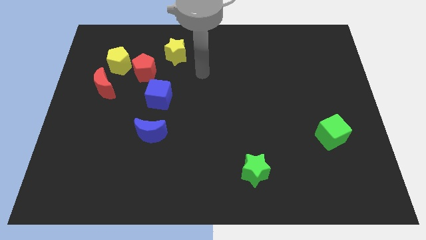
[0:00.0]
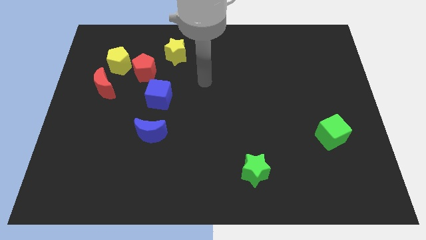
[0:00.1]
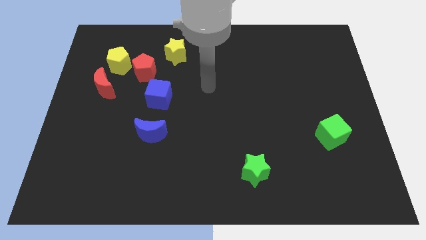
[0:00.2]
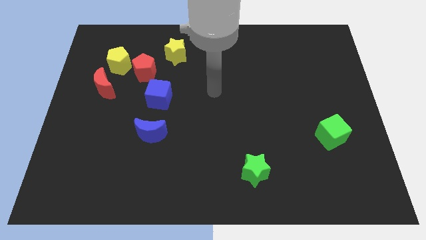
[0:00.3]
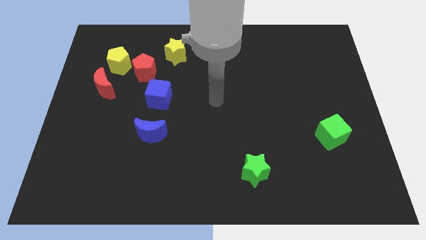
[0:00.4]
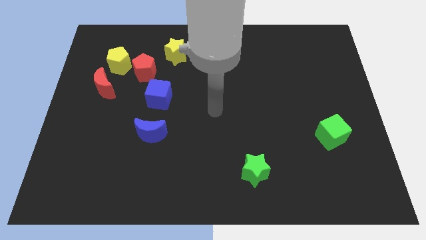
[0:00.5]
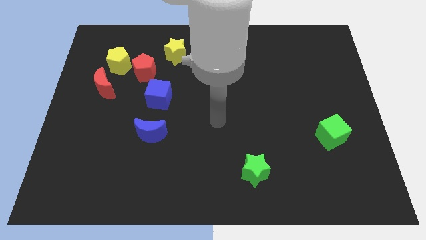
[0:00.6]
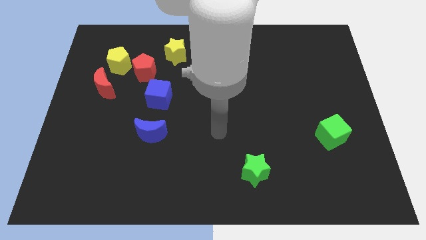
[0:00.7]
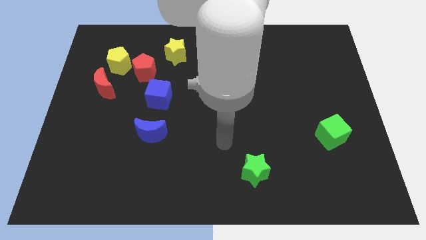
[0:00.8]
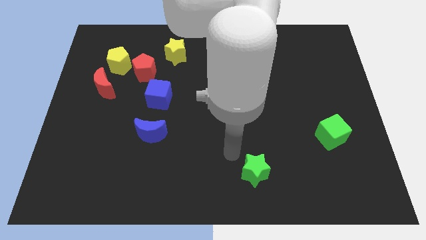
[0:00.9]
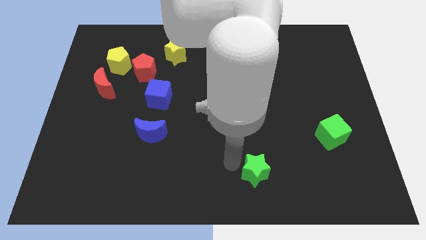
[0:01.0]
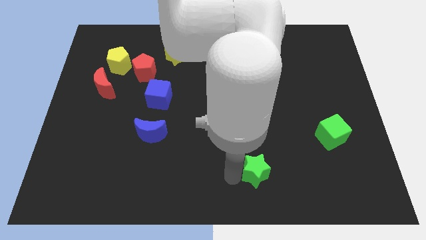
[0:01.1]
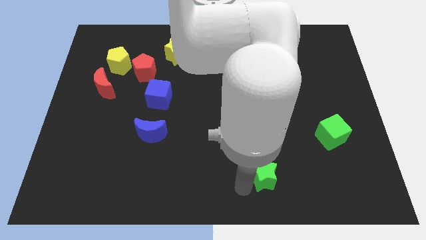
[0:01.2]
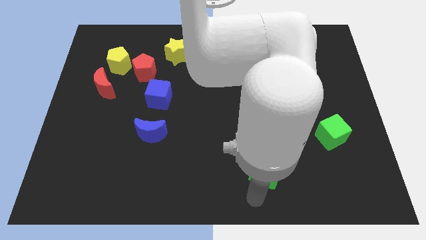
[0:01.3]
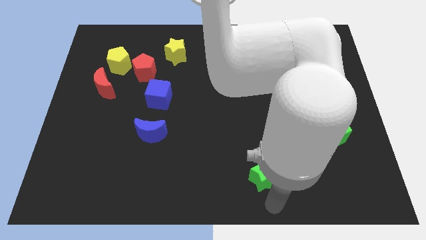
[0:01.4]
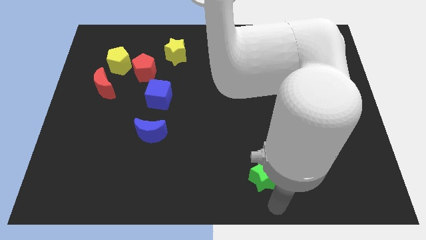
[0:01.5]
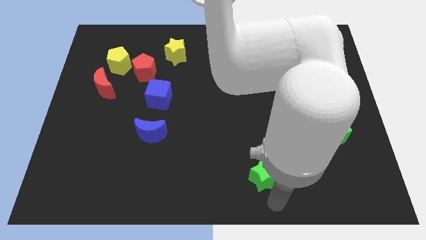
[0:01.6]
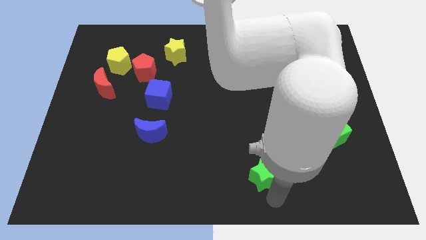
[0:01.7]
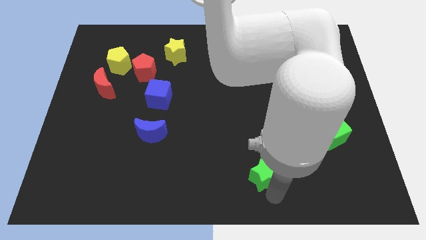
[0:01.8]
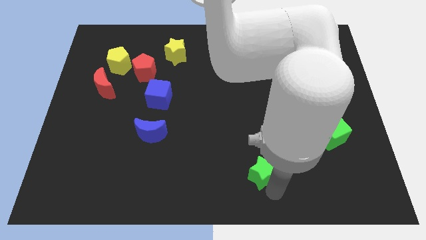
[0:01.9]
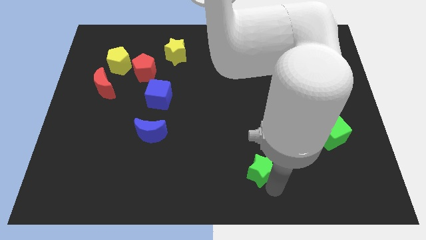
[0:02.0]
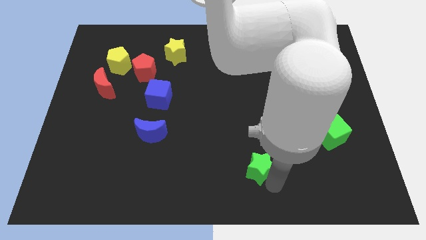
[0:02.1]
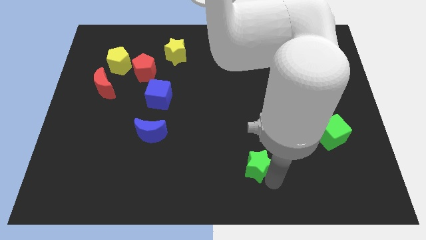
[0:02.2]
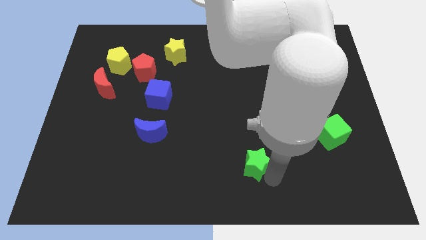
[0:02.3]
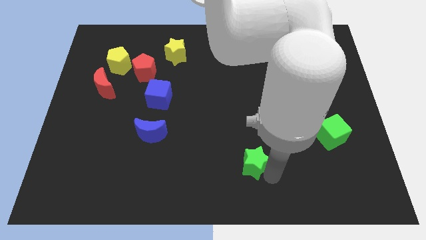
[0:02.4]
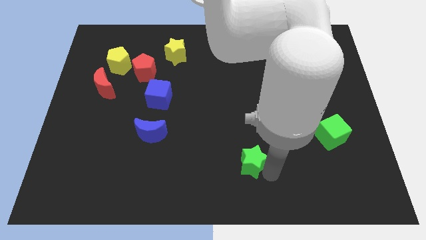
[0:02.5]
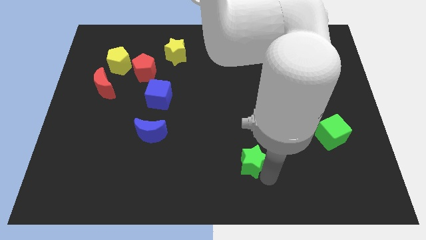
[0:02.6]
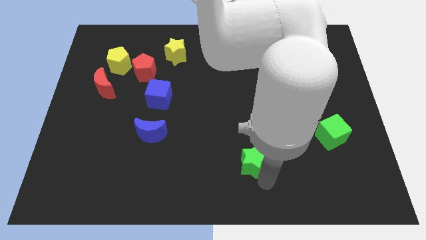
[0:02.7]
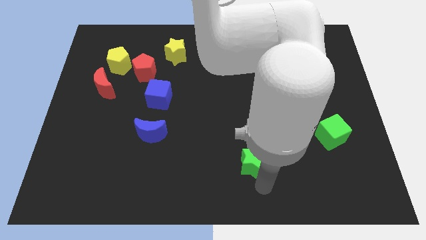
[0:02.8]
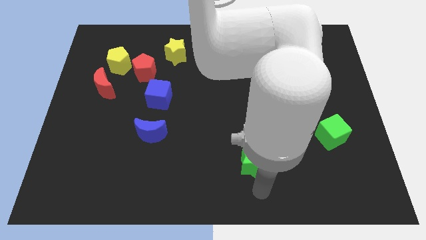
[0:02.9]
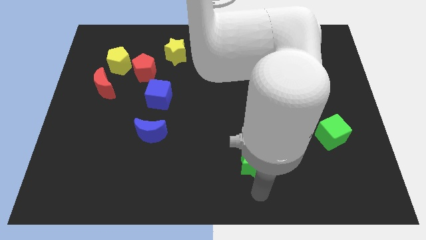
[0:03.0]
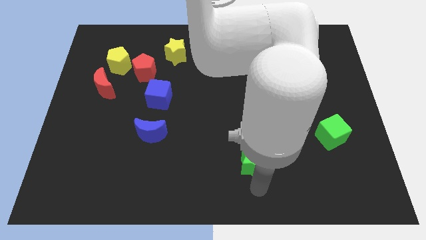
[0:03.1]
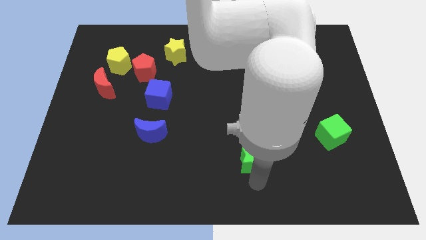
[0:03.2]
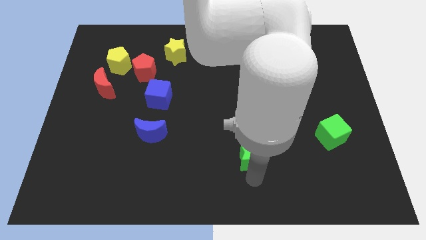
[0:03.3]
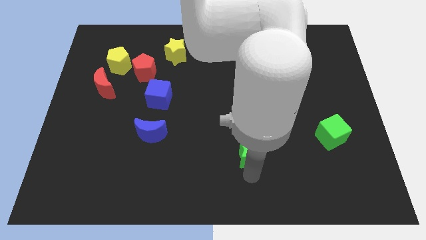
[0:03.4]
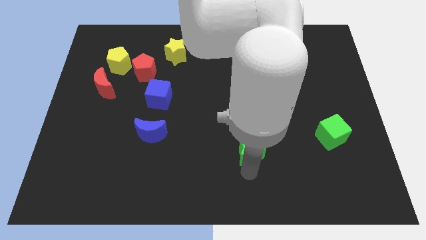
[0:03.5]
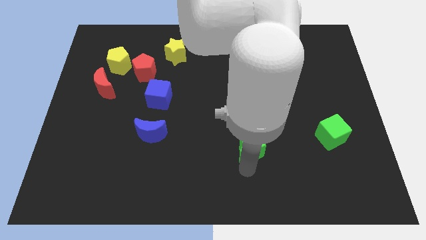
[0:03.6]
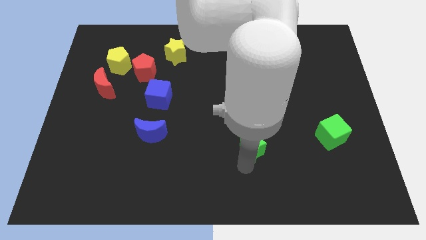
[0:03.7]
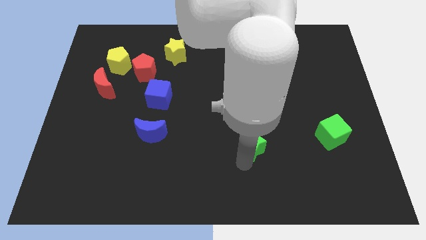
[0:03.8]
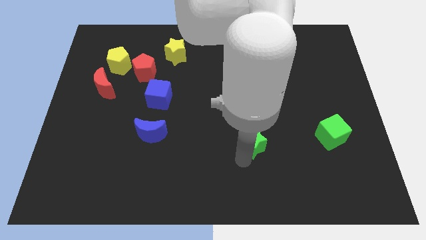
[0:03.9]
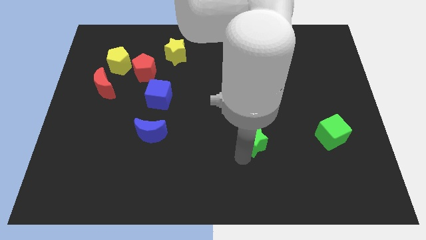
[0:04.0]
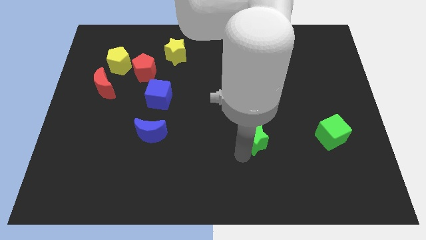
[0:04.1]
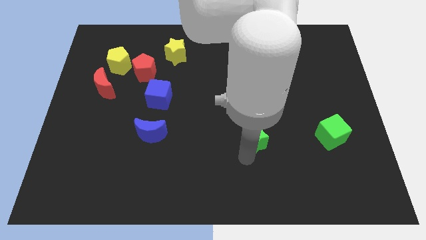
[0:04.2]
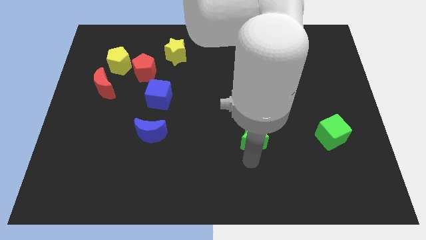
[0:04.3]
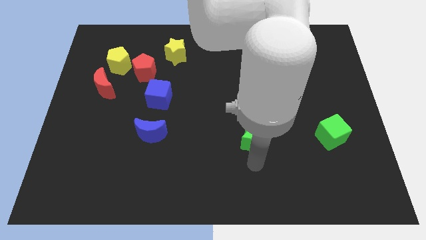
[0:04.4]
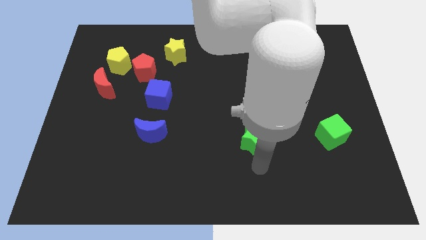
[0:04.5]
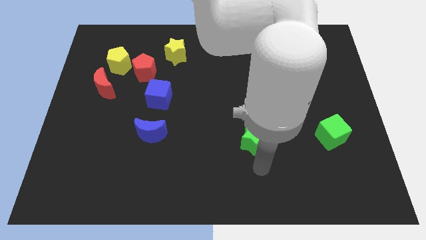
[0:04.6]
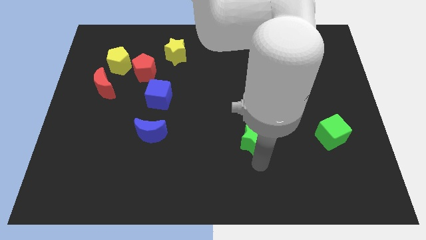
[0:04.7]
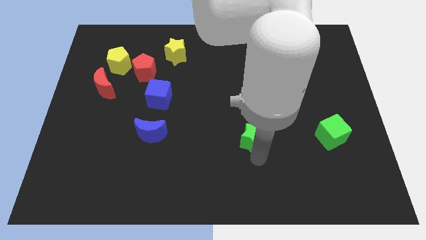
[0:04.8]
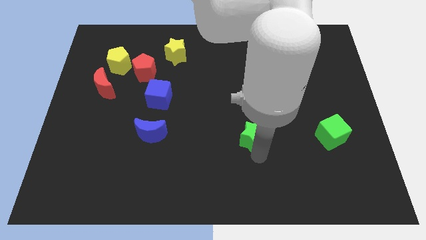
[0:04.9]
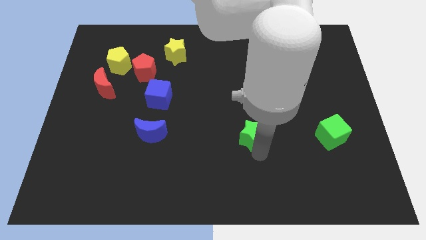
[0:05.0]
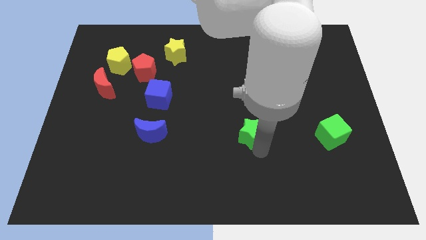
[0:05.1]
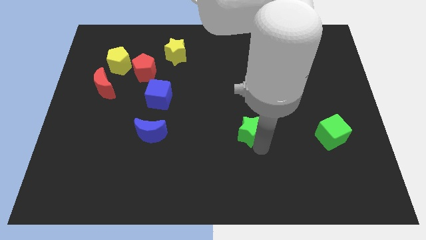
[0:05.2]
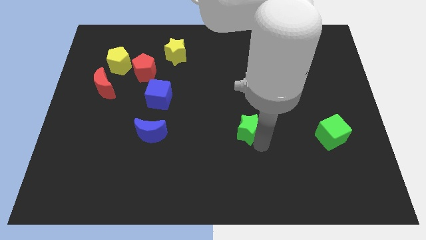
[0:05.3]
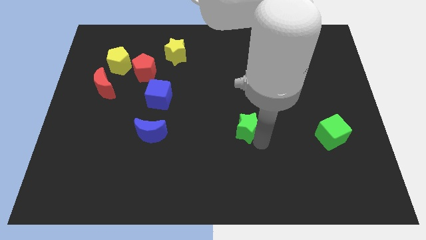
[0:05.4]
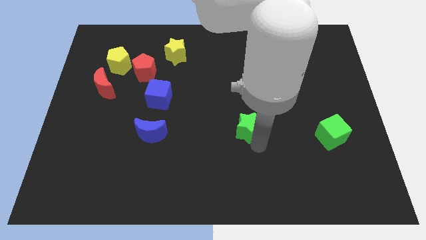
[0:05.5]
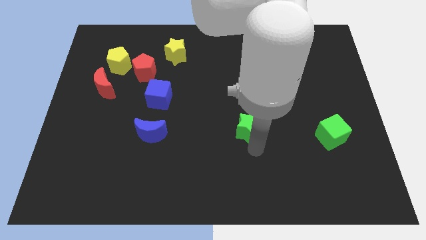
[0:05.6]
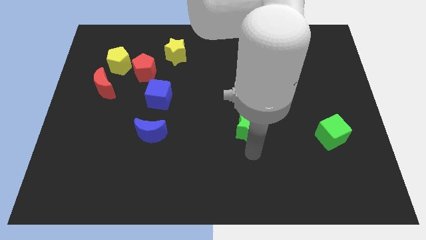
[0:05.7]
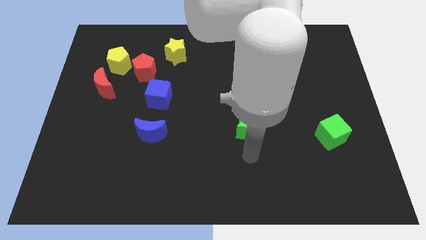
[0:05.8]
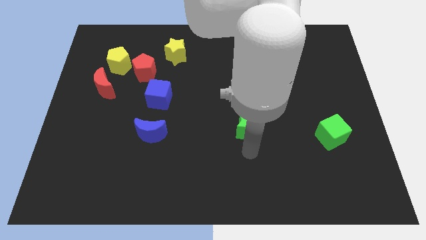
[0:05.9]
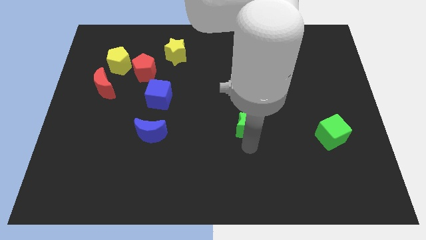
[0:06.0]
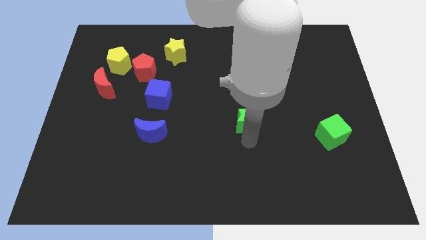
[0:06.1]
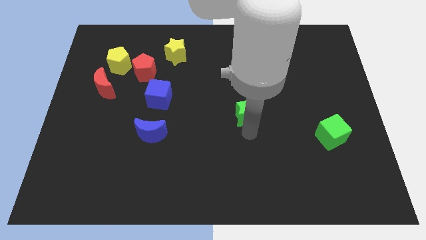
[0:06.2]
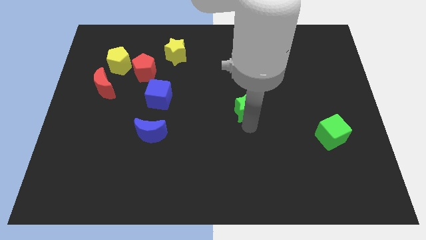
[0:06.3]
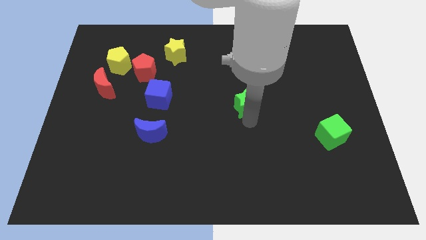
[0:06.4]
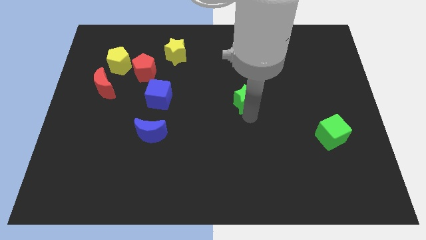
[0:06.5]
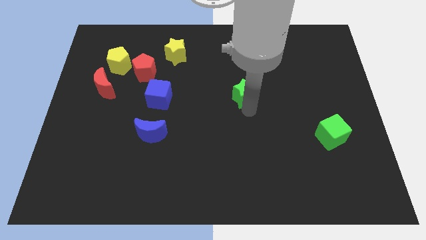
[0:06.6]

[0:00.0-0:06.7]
slide the green star upwards

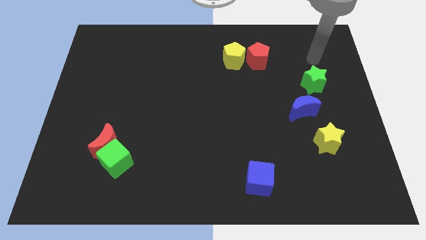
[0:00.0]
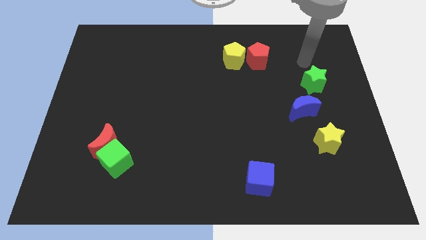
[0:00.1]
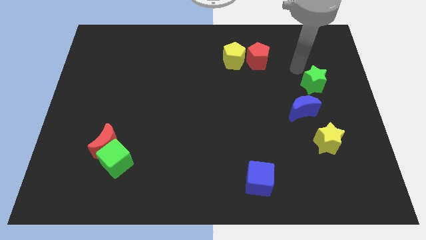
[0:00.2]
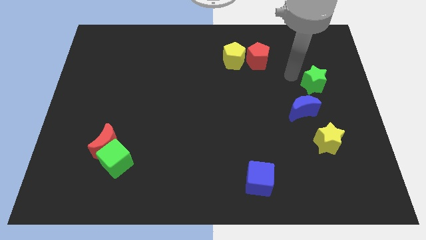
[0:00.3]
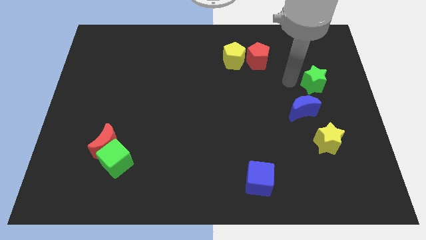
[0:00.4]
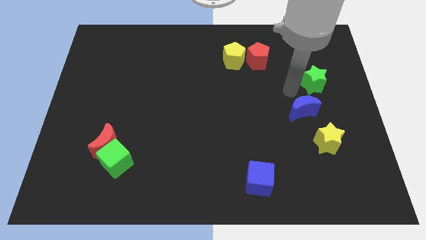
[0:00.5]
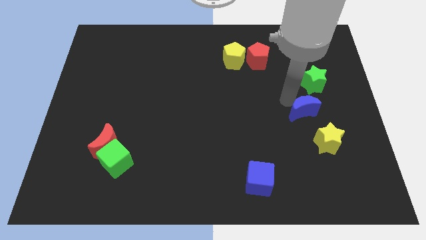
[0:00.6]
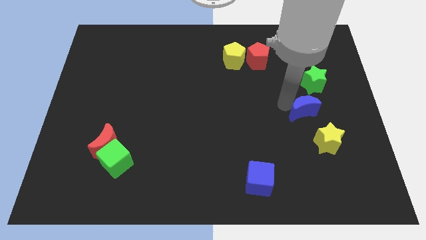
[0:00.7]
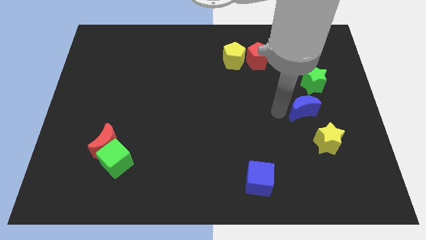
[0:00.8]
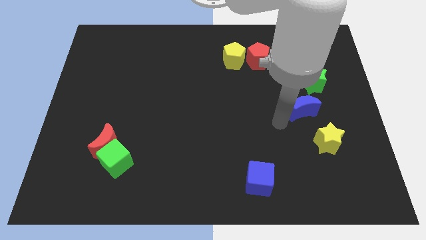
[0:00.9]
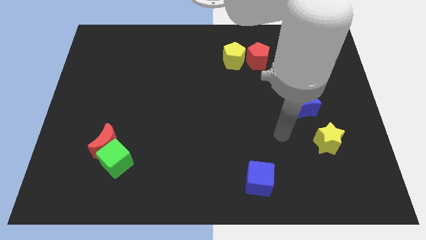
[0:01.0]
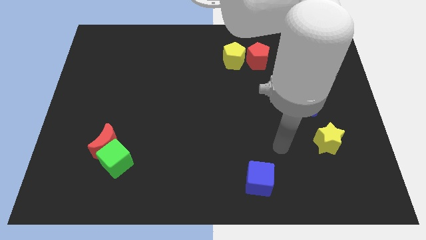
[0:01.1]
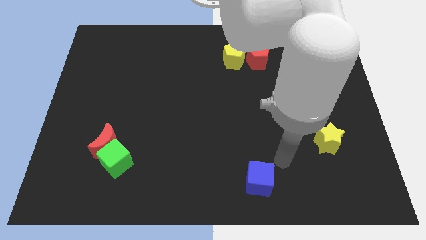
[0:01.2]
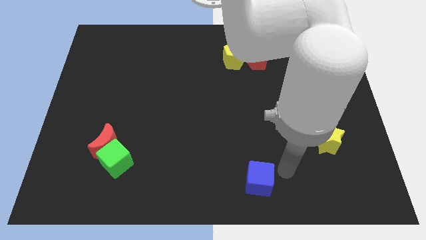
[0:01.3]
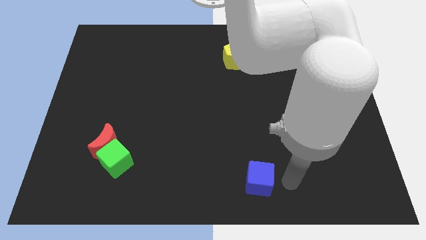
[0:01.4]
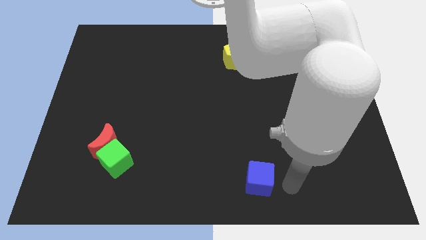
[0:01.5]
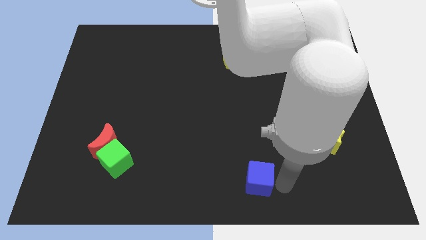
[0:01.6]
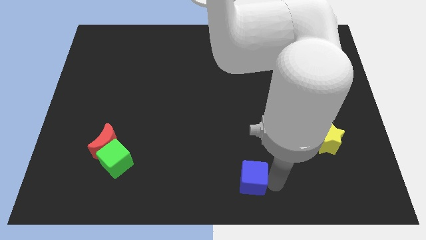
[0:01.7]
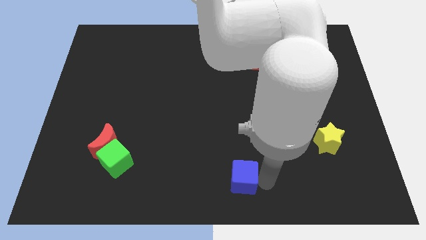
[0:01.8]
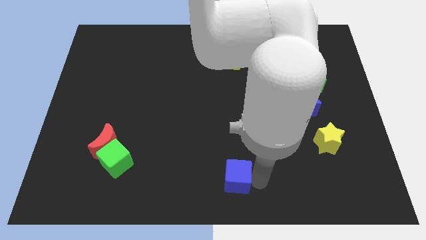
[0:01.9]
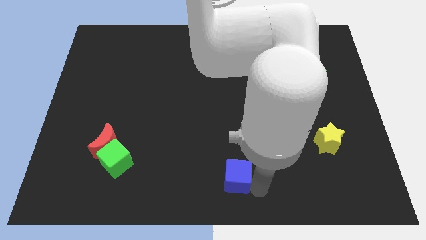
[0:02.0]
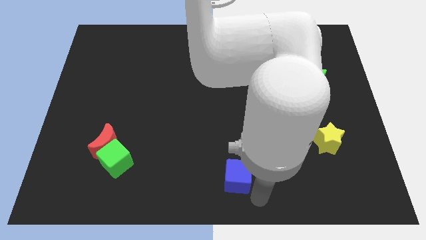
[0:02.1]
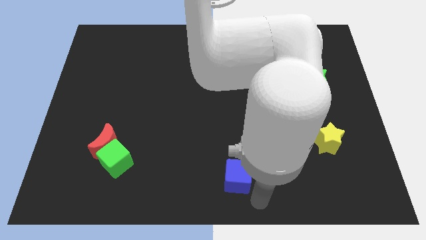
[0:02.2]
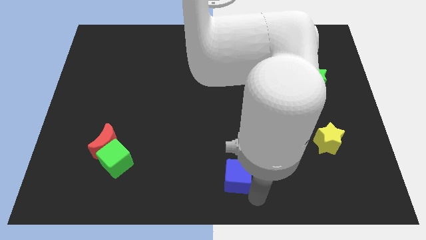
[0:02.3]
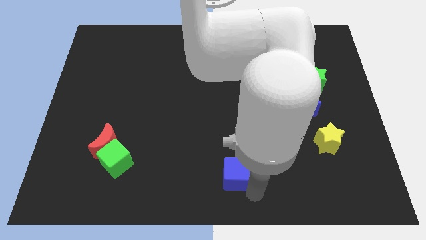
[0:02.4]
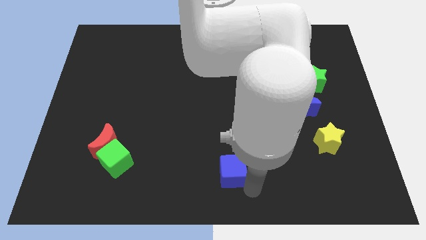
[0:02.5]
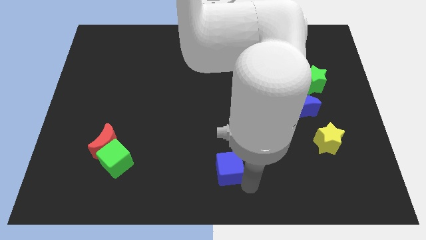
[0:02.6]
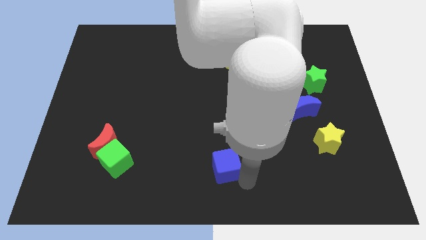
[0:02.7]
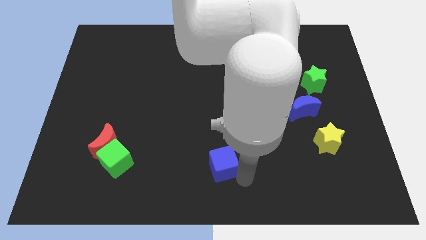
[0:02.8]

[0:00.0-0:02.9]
slightly slide the blue cube up and then left
